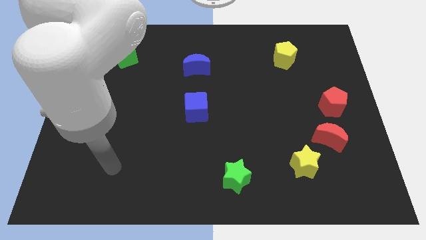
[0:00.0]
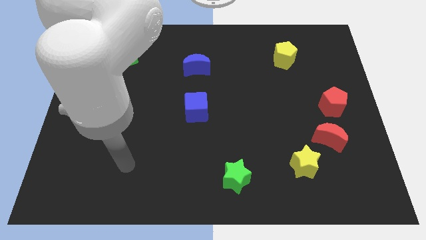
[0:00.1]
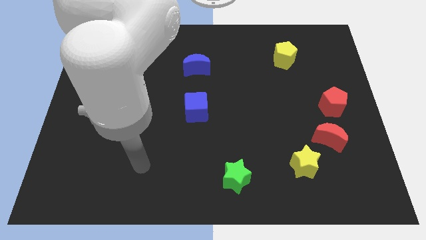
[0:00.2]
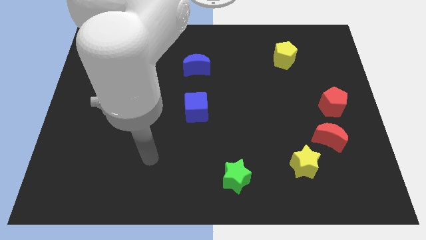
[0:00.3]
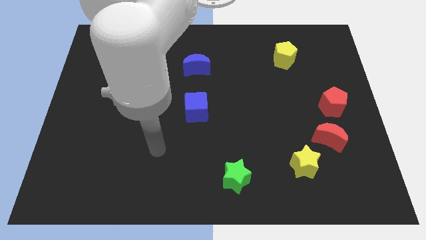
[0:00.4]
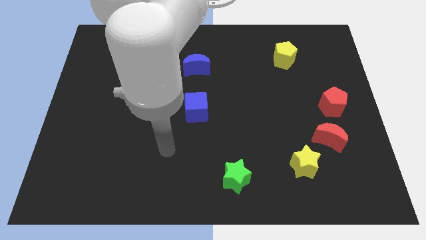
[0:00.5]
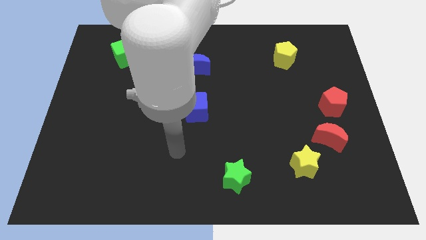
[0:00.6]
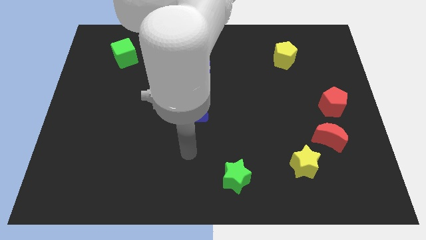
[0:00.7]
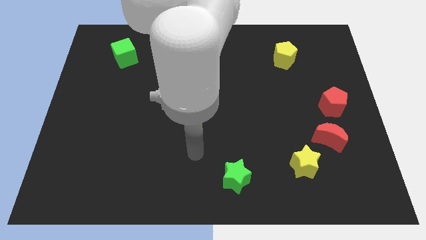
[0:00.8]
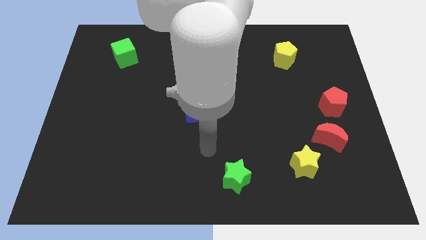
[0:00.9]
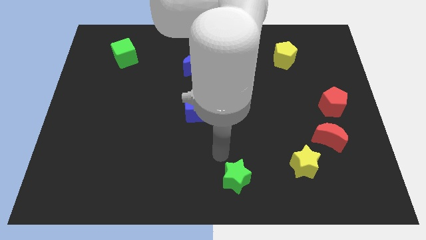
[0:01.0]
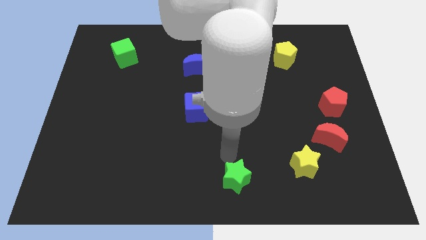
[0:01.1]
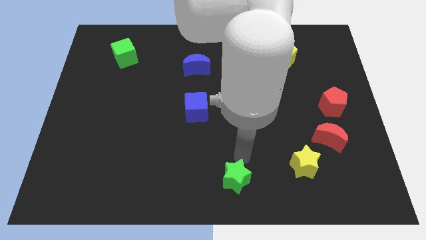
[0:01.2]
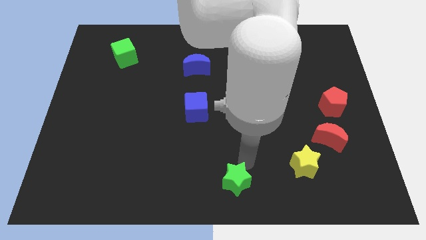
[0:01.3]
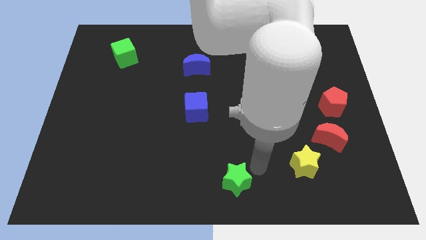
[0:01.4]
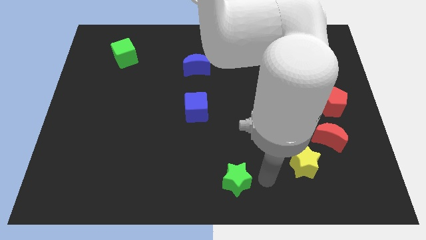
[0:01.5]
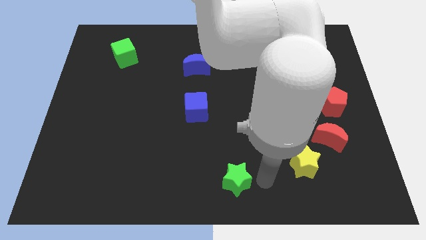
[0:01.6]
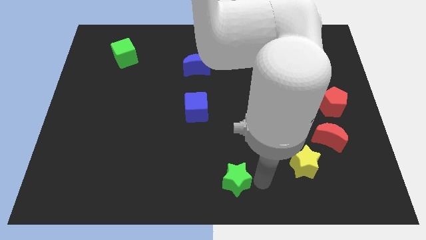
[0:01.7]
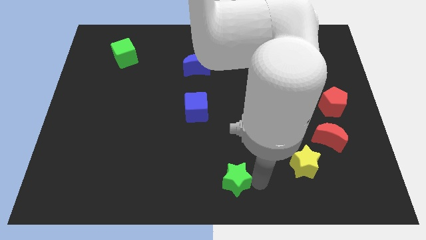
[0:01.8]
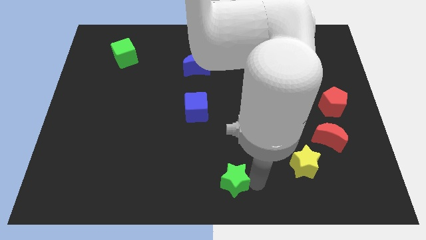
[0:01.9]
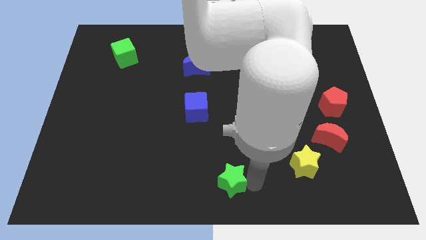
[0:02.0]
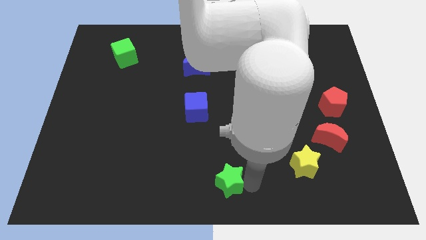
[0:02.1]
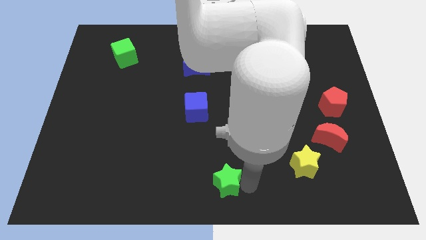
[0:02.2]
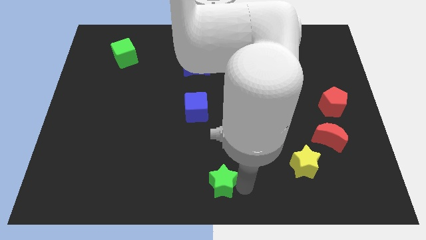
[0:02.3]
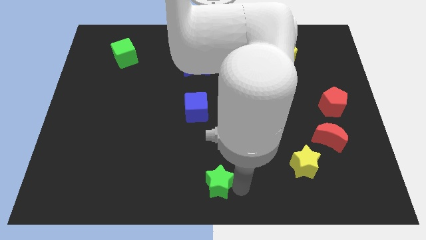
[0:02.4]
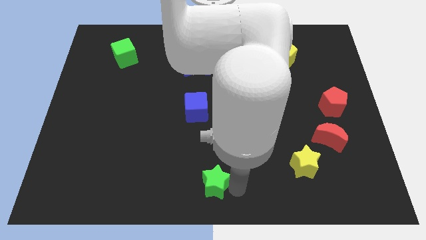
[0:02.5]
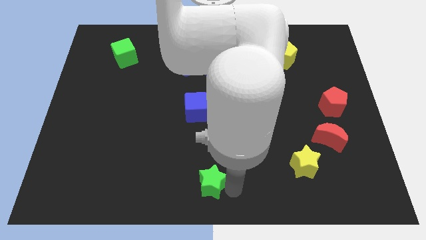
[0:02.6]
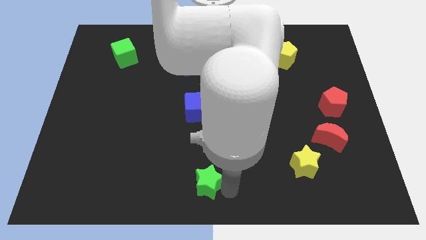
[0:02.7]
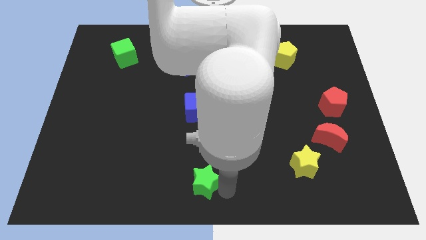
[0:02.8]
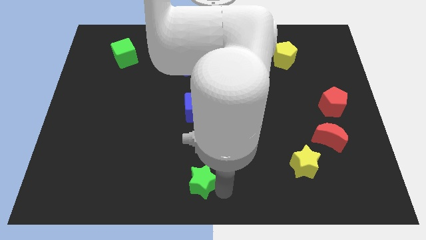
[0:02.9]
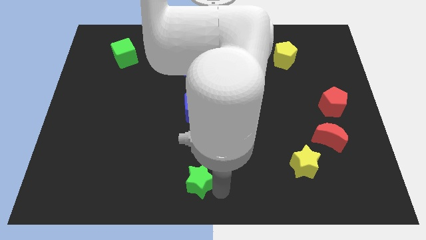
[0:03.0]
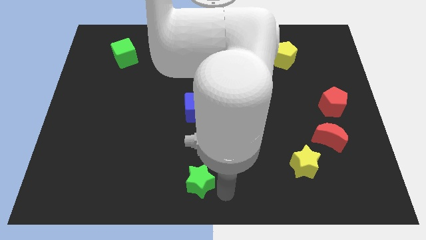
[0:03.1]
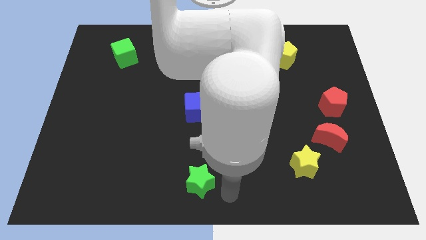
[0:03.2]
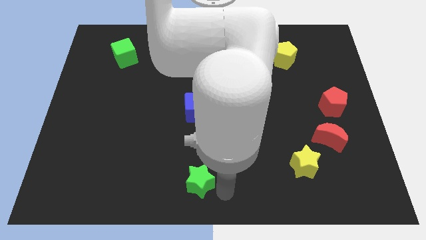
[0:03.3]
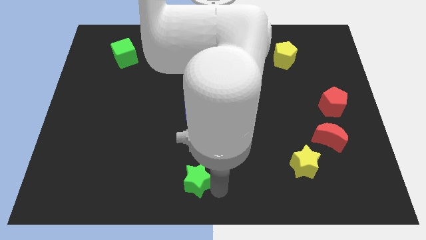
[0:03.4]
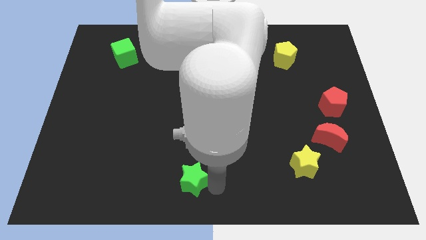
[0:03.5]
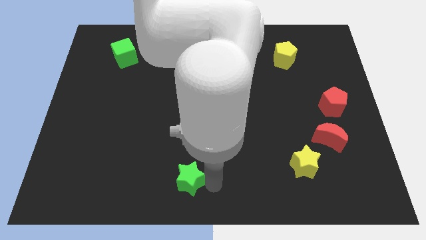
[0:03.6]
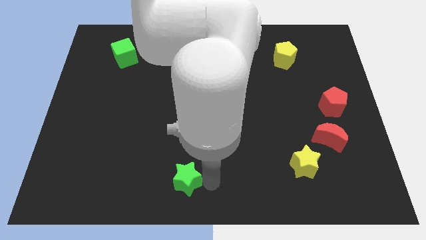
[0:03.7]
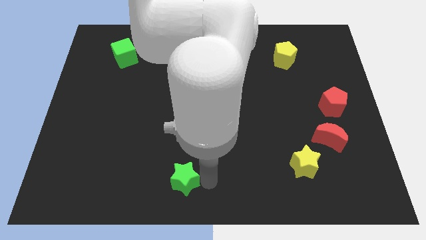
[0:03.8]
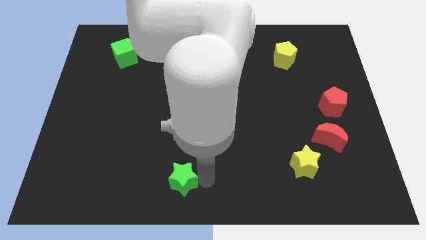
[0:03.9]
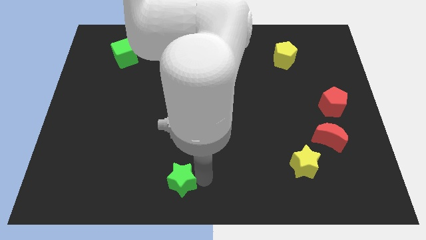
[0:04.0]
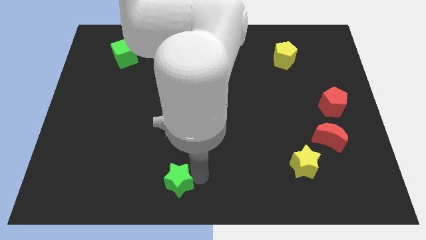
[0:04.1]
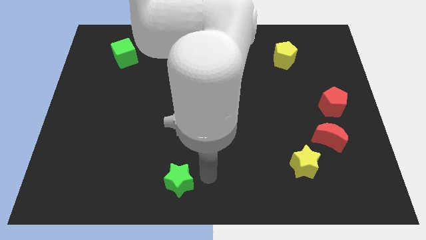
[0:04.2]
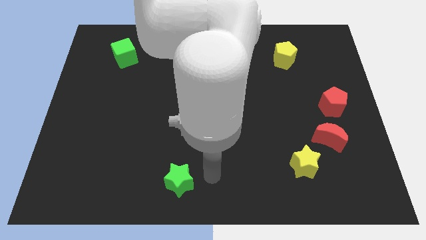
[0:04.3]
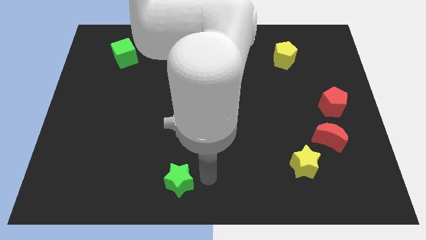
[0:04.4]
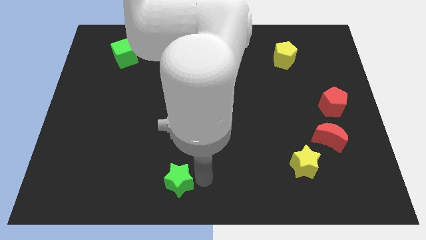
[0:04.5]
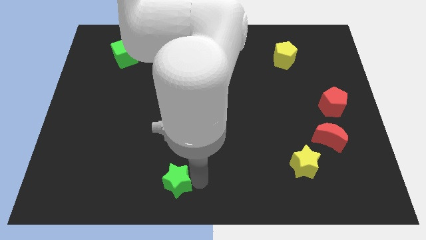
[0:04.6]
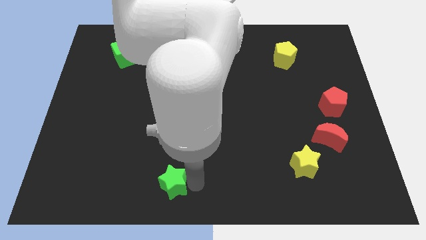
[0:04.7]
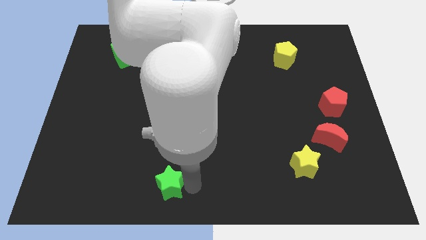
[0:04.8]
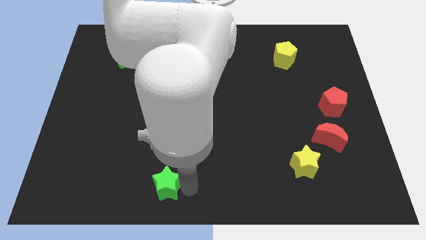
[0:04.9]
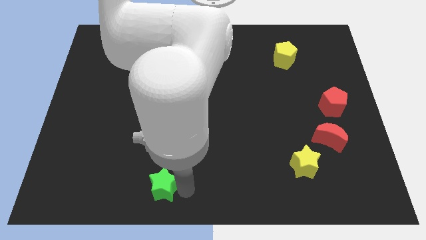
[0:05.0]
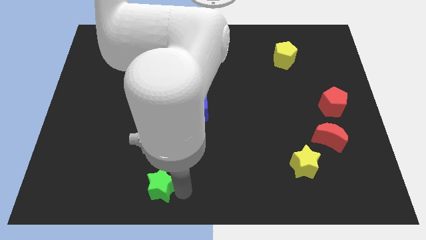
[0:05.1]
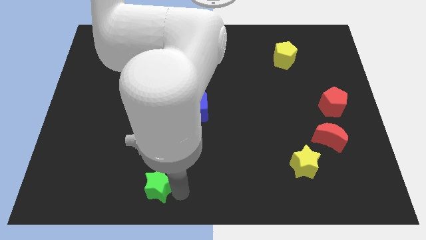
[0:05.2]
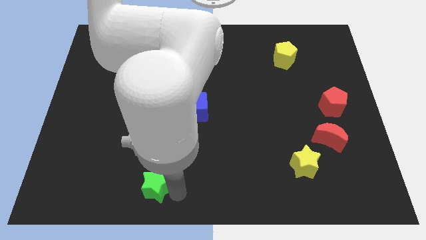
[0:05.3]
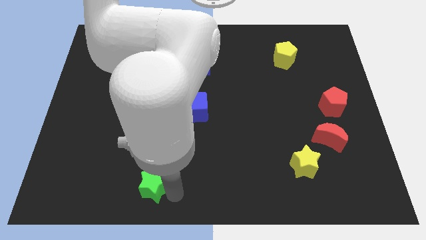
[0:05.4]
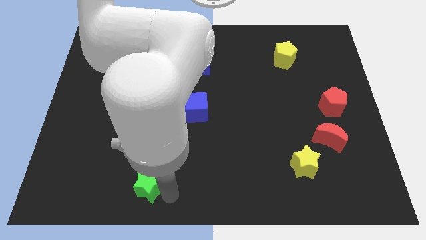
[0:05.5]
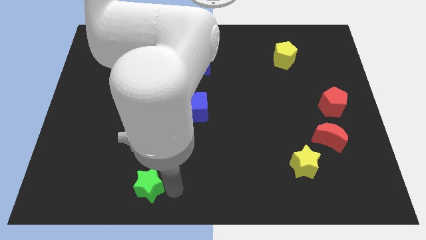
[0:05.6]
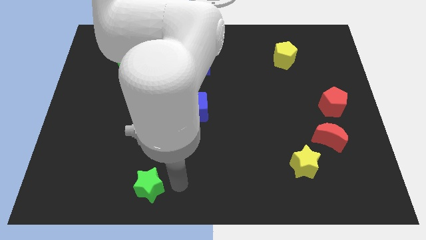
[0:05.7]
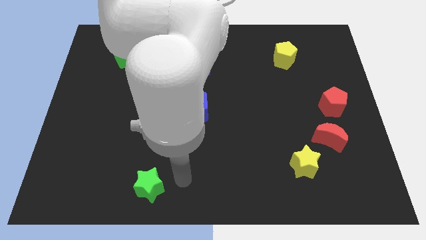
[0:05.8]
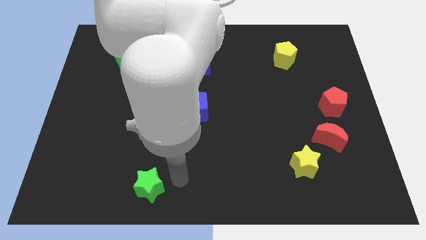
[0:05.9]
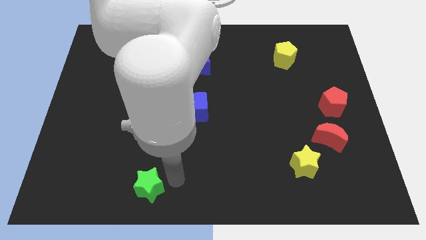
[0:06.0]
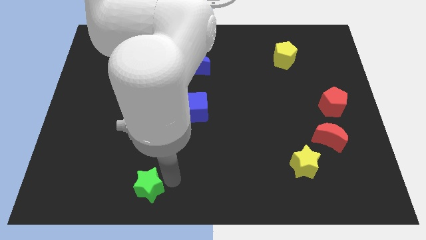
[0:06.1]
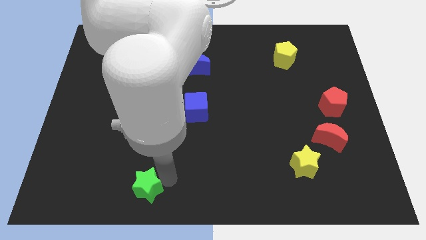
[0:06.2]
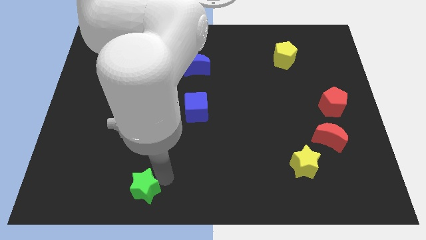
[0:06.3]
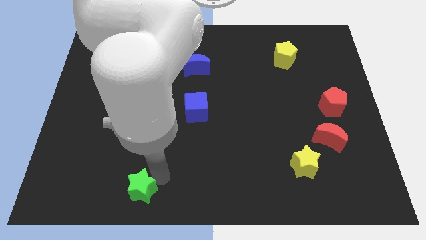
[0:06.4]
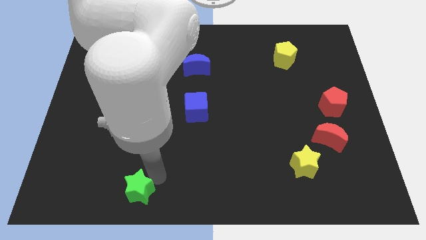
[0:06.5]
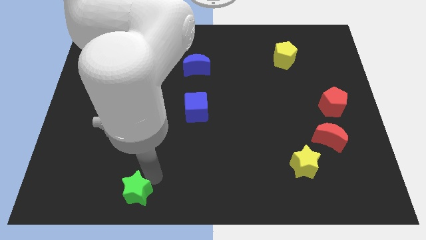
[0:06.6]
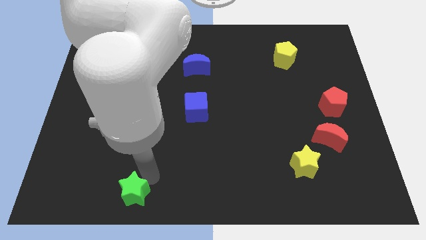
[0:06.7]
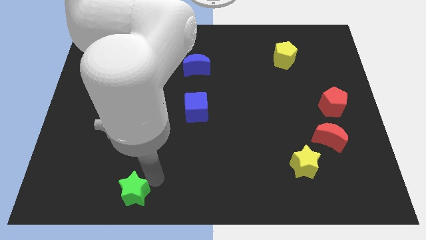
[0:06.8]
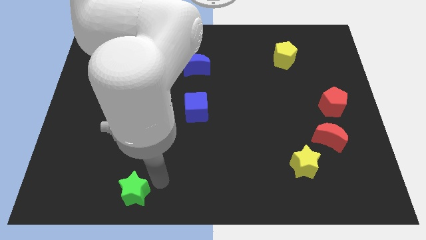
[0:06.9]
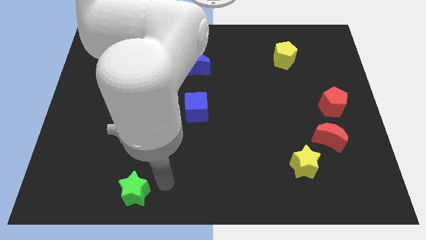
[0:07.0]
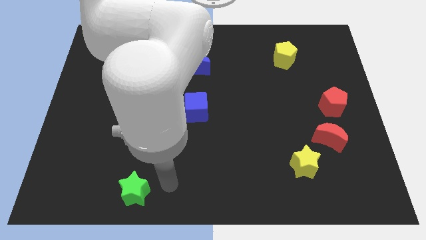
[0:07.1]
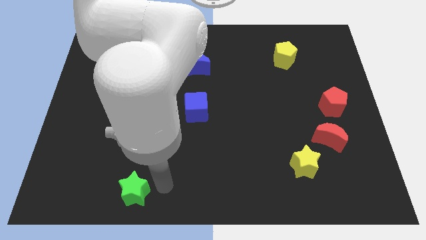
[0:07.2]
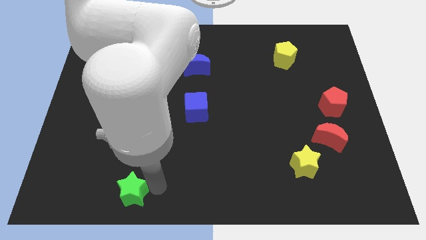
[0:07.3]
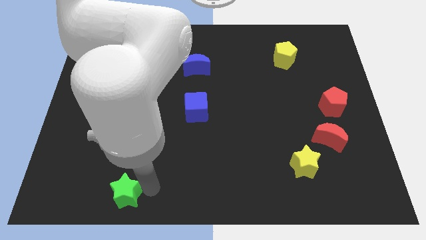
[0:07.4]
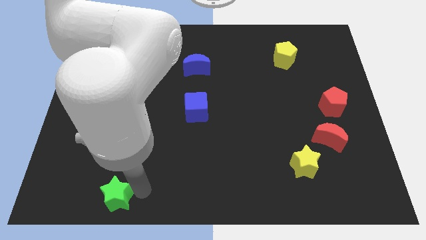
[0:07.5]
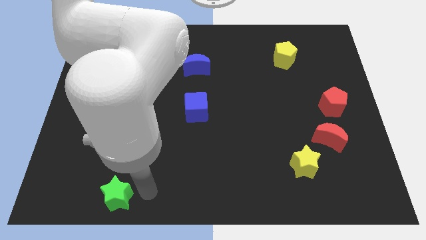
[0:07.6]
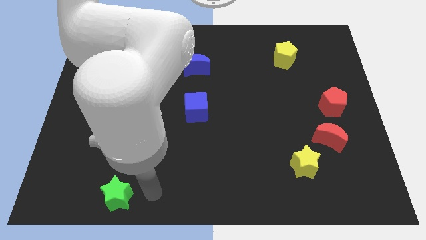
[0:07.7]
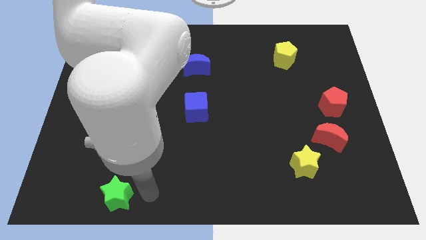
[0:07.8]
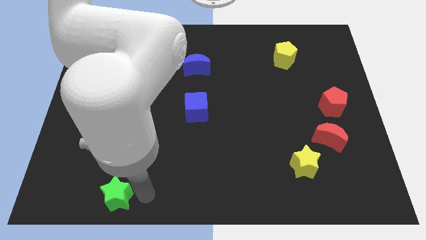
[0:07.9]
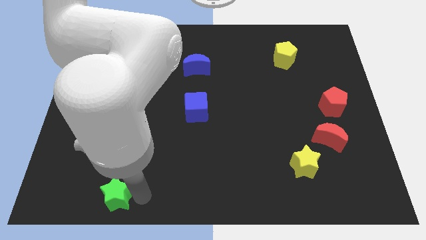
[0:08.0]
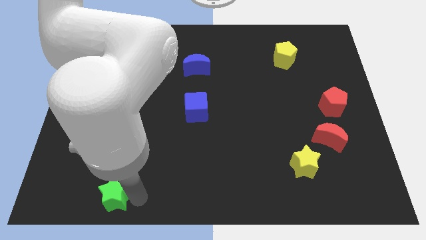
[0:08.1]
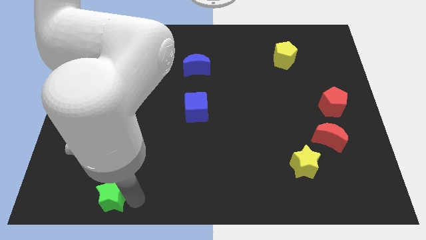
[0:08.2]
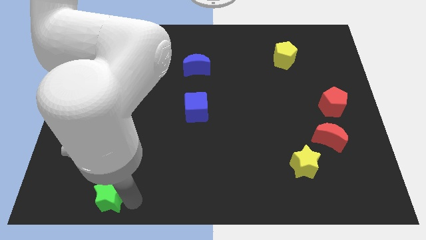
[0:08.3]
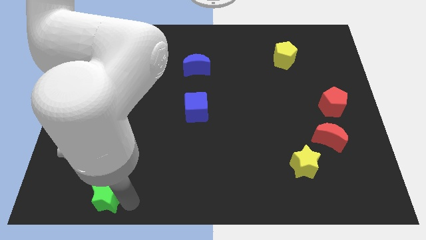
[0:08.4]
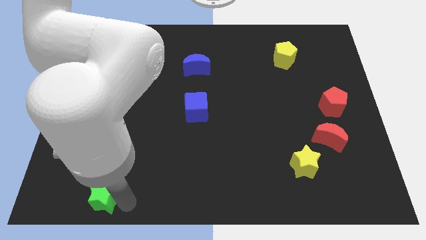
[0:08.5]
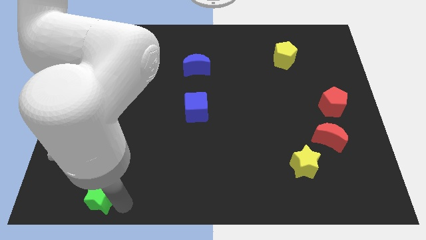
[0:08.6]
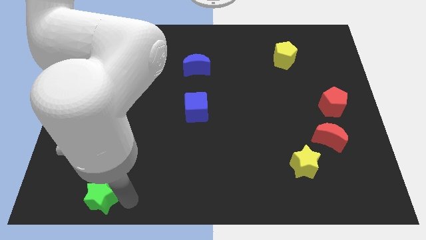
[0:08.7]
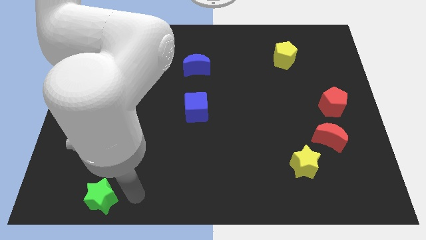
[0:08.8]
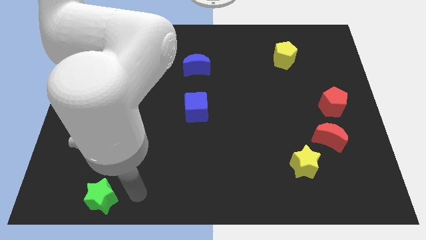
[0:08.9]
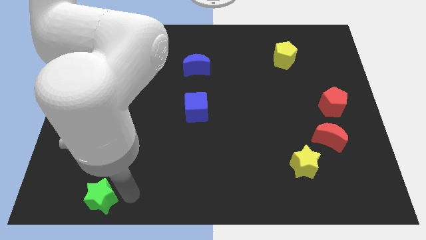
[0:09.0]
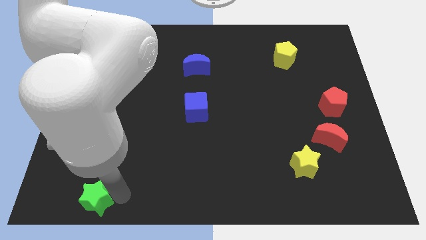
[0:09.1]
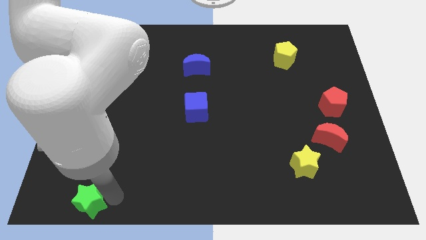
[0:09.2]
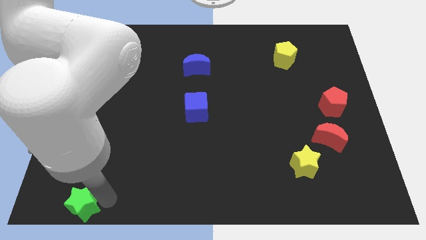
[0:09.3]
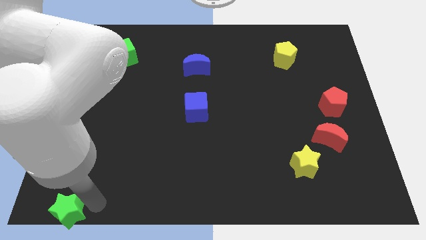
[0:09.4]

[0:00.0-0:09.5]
slide the green star to the bottom left
